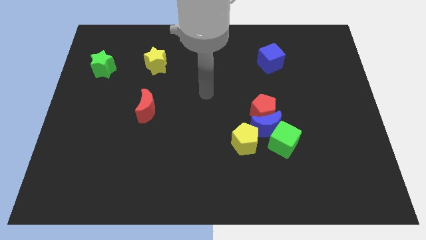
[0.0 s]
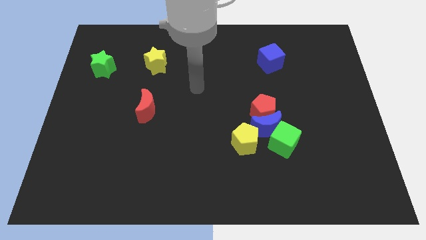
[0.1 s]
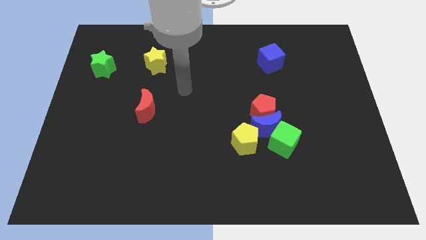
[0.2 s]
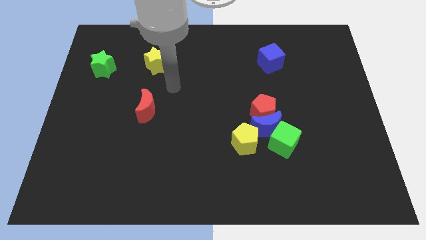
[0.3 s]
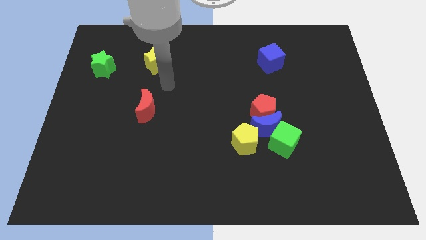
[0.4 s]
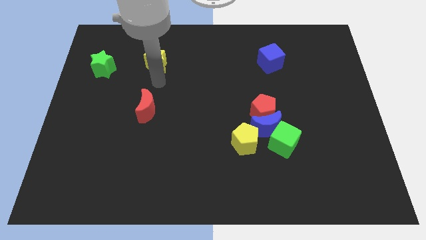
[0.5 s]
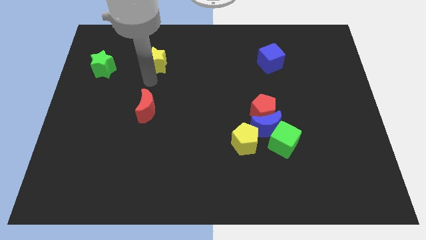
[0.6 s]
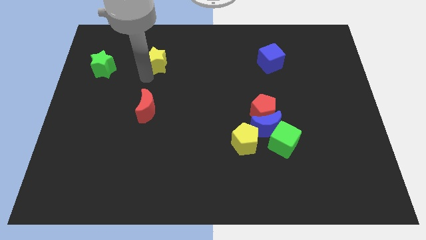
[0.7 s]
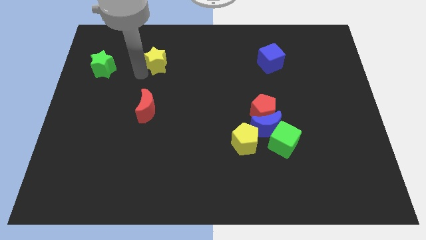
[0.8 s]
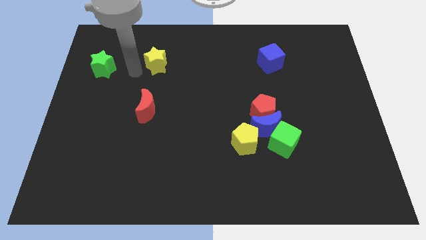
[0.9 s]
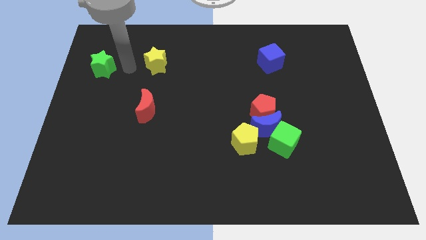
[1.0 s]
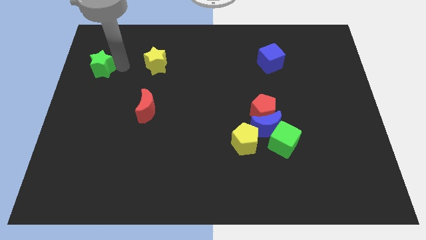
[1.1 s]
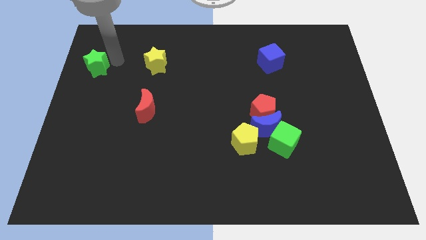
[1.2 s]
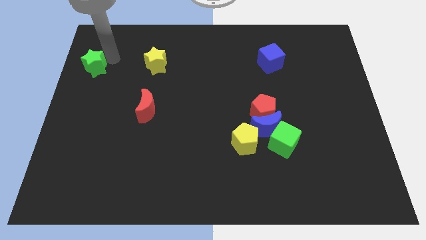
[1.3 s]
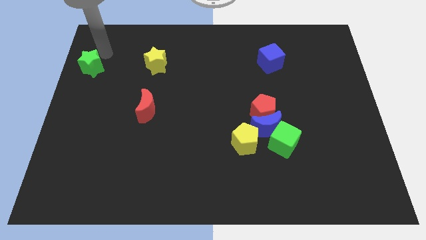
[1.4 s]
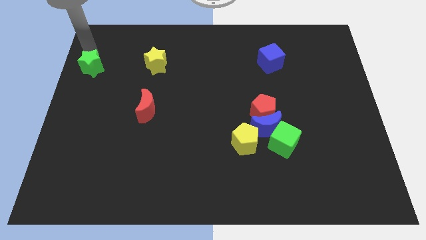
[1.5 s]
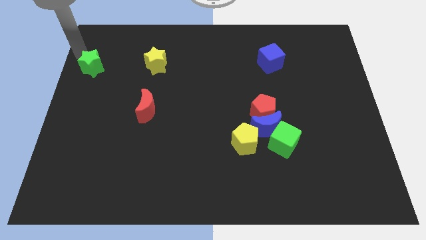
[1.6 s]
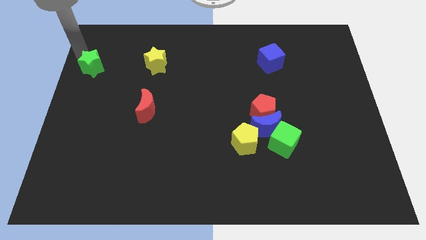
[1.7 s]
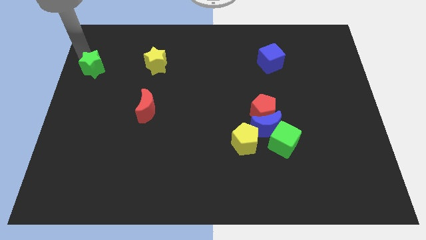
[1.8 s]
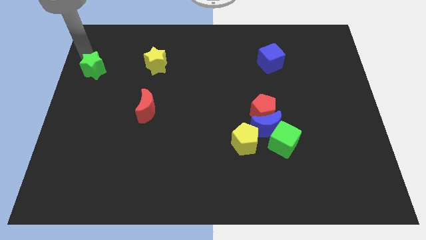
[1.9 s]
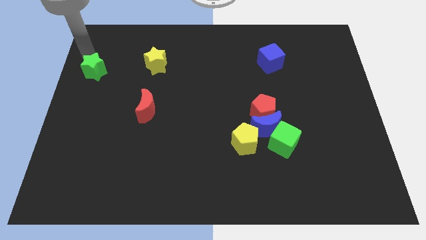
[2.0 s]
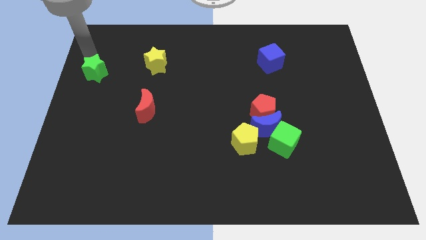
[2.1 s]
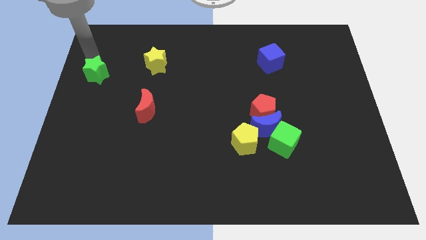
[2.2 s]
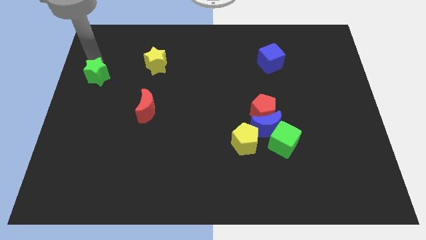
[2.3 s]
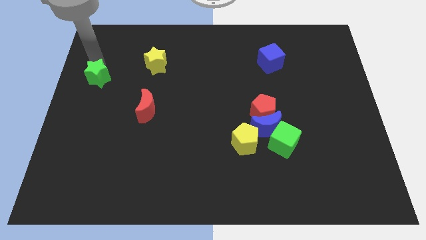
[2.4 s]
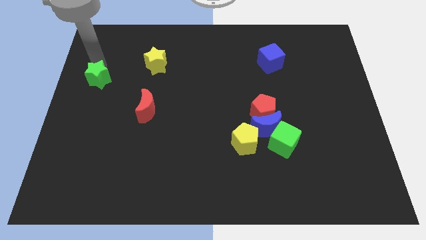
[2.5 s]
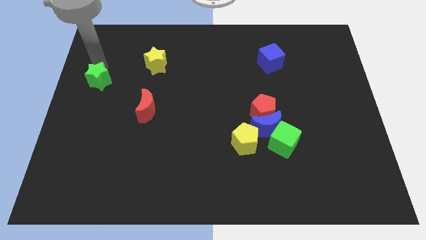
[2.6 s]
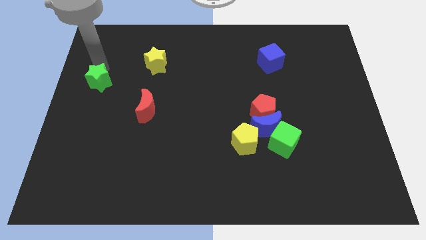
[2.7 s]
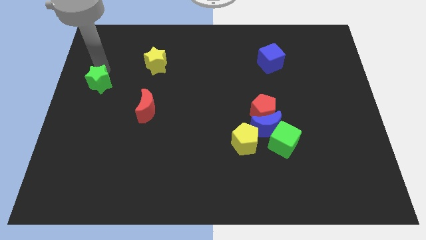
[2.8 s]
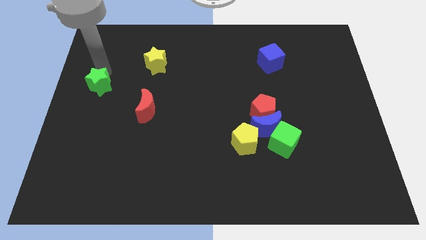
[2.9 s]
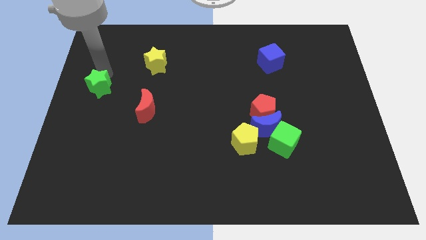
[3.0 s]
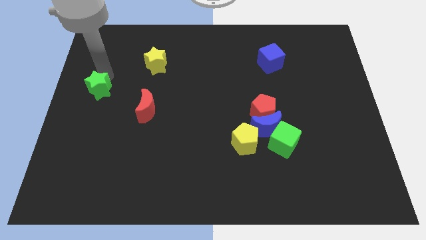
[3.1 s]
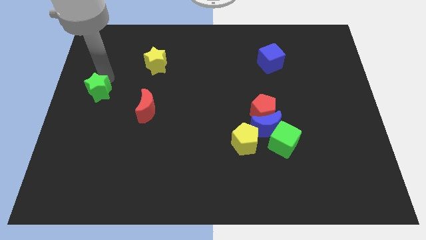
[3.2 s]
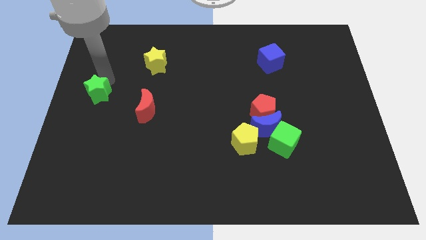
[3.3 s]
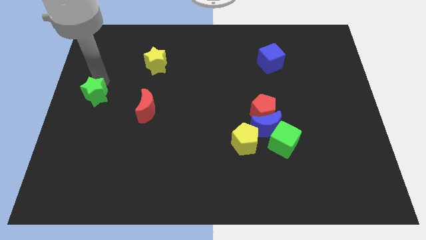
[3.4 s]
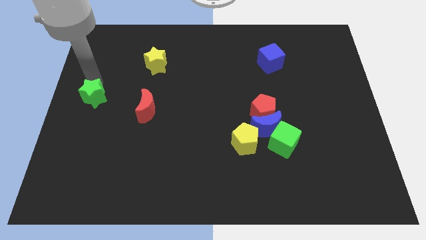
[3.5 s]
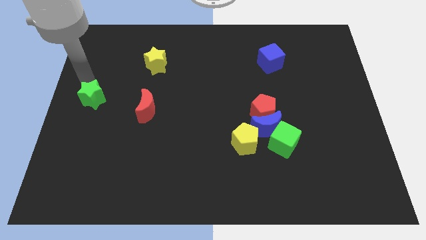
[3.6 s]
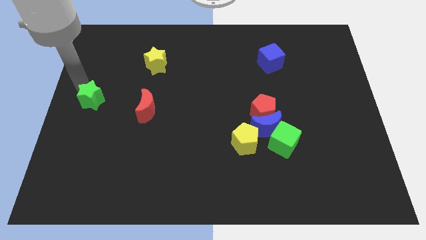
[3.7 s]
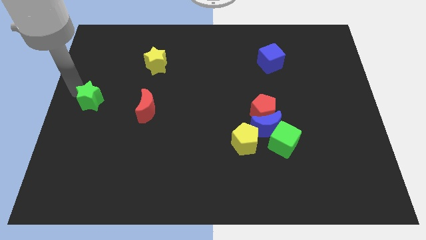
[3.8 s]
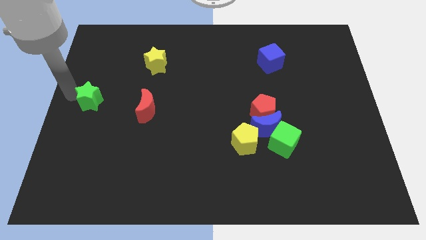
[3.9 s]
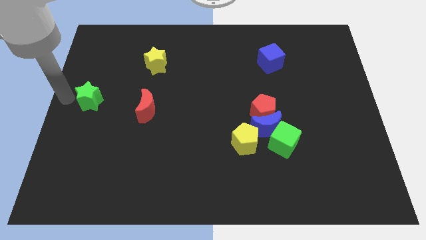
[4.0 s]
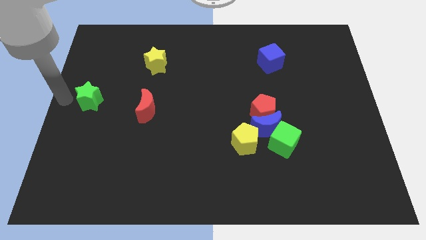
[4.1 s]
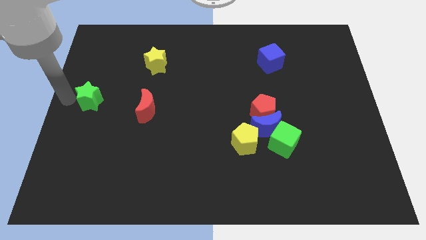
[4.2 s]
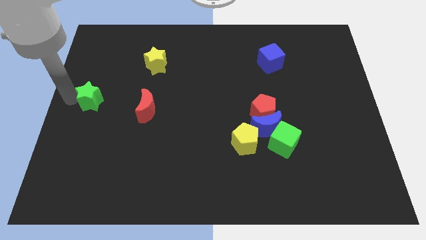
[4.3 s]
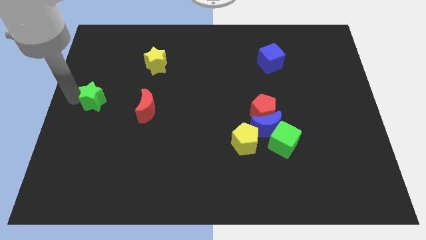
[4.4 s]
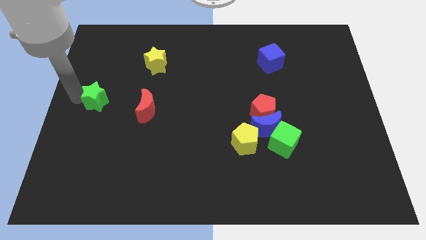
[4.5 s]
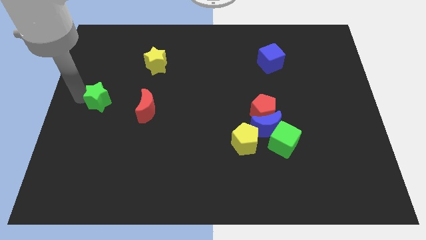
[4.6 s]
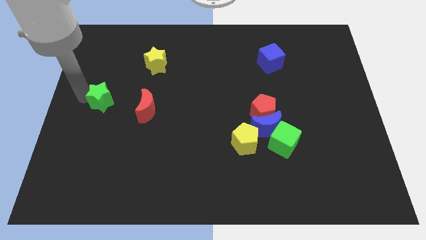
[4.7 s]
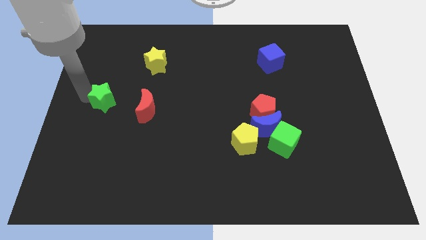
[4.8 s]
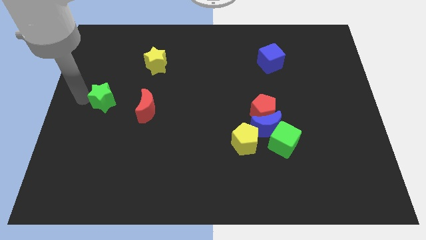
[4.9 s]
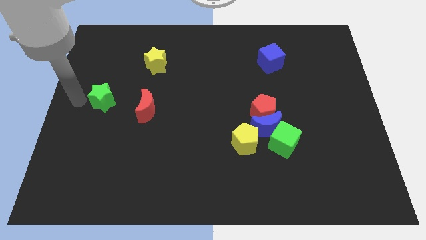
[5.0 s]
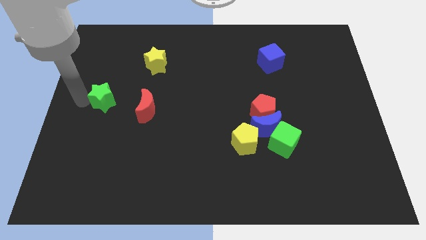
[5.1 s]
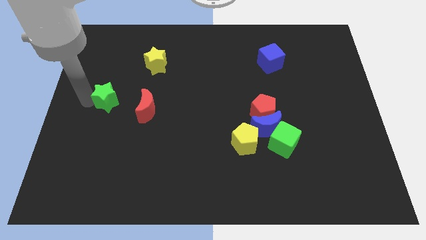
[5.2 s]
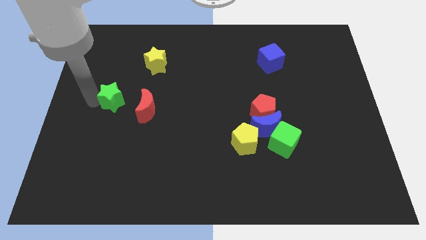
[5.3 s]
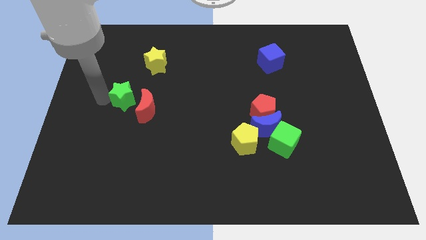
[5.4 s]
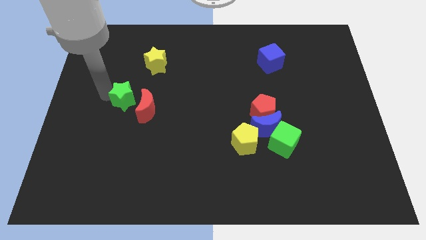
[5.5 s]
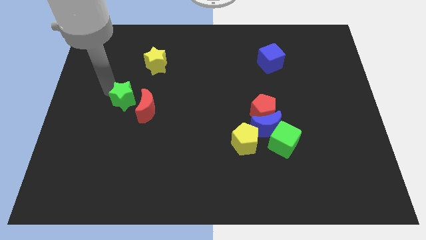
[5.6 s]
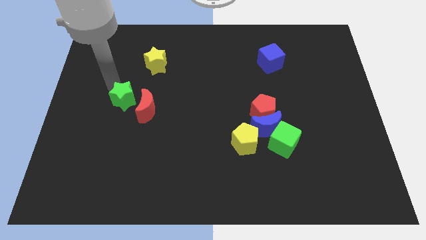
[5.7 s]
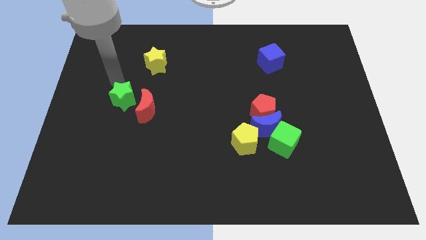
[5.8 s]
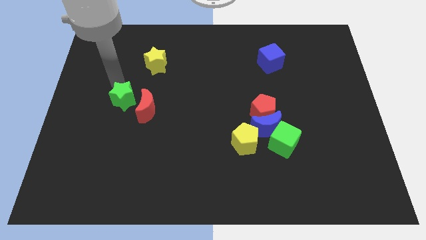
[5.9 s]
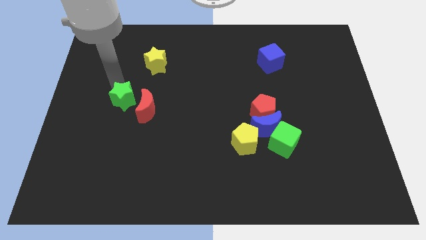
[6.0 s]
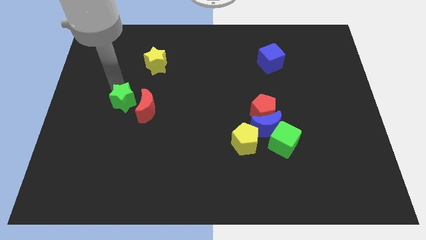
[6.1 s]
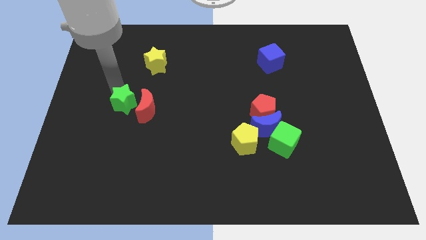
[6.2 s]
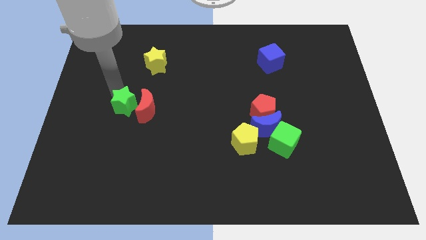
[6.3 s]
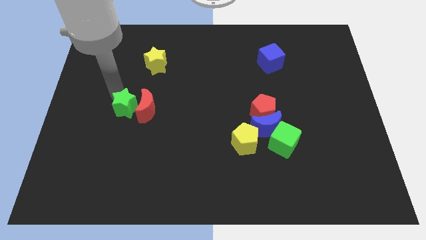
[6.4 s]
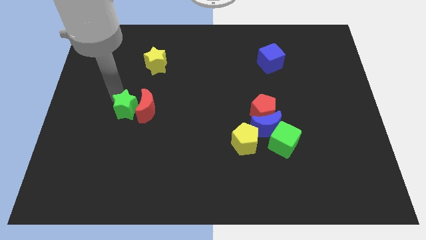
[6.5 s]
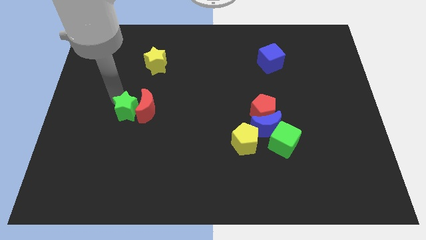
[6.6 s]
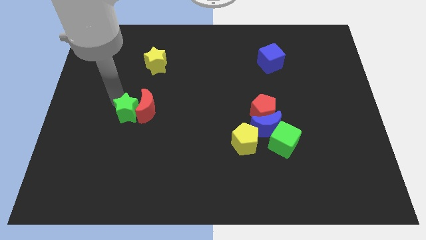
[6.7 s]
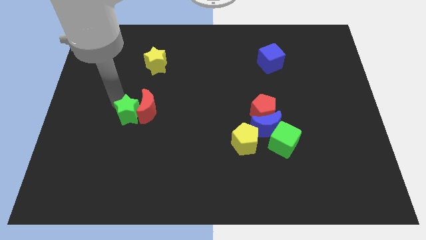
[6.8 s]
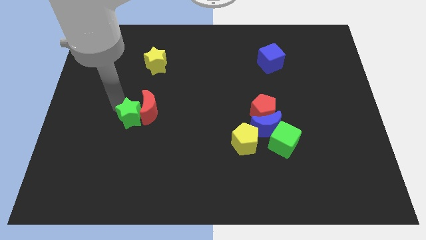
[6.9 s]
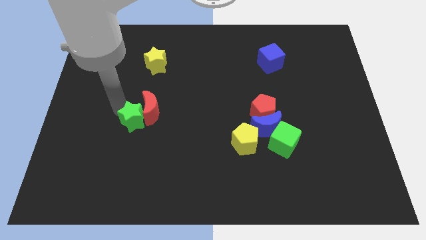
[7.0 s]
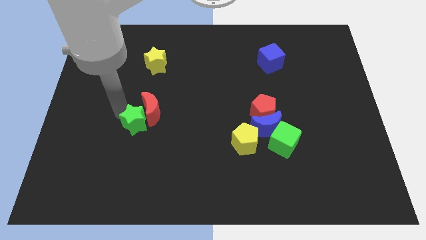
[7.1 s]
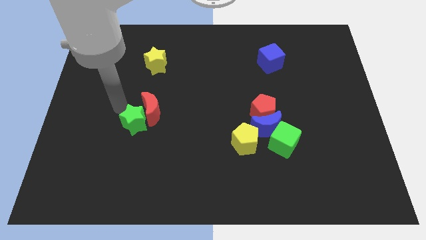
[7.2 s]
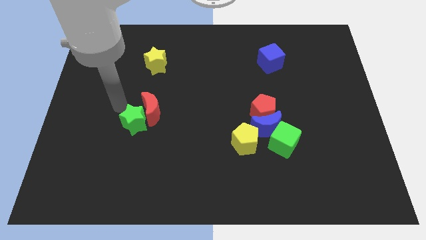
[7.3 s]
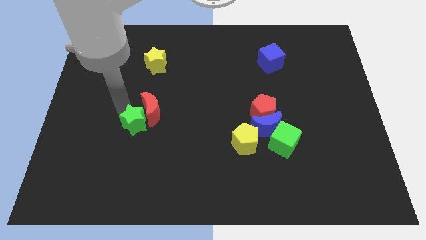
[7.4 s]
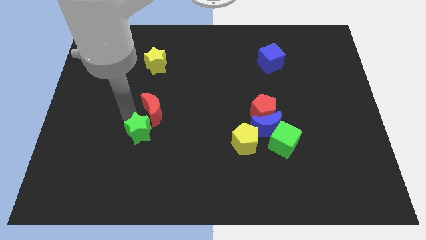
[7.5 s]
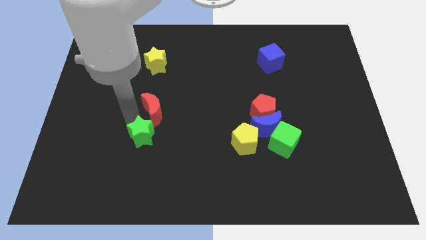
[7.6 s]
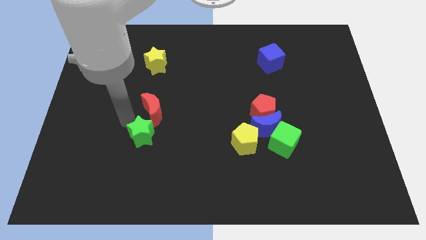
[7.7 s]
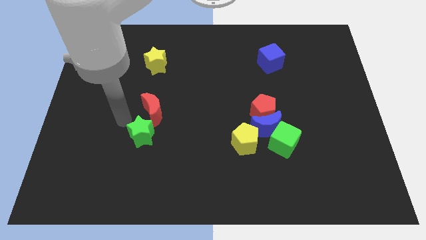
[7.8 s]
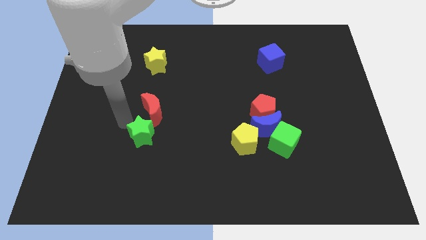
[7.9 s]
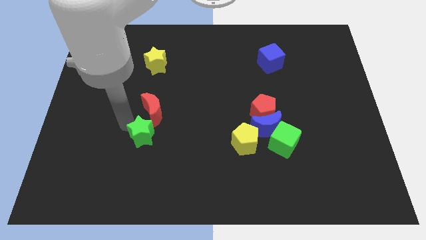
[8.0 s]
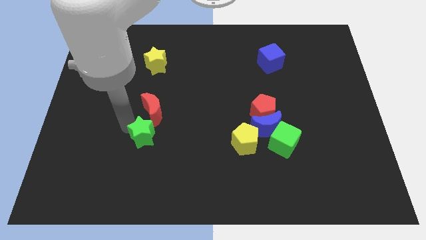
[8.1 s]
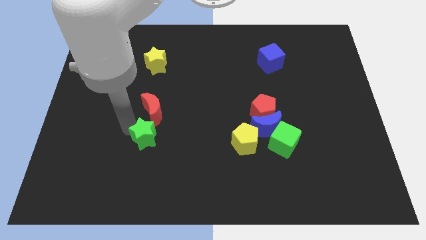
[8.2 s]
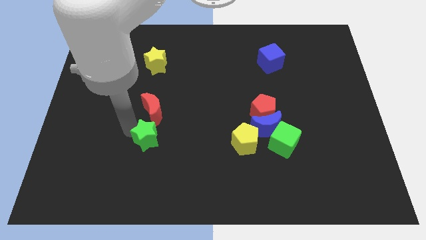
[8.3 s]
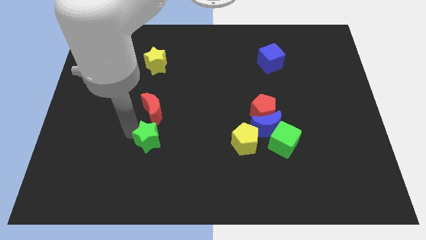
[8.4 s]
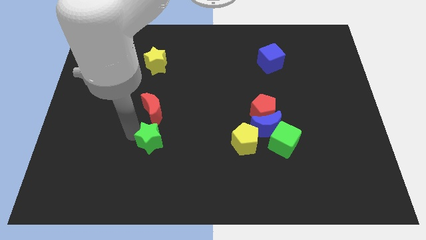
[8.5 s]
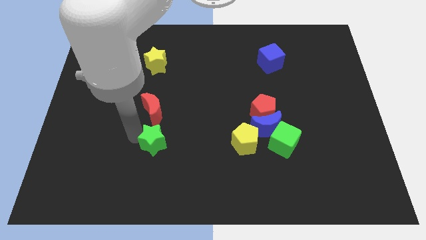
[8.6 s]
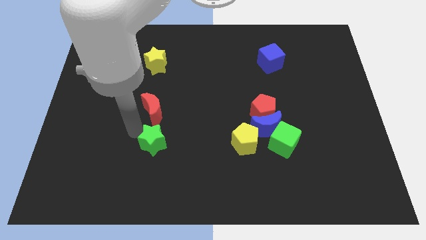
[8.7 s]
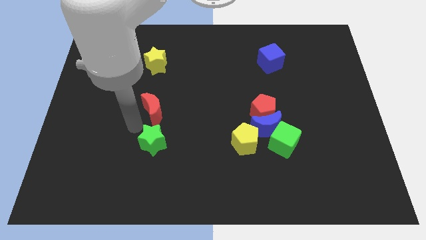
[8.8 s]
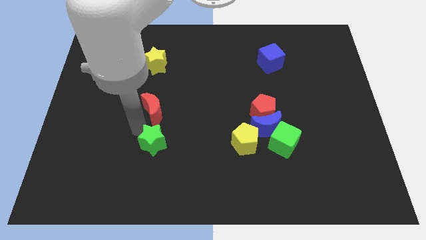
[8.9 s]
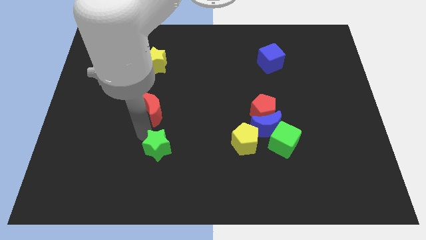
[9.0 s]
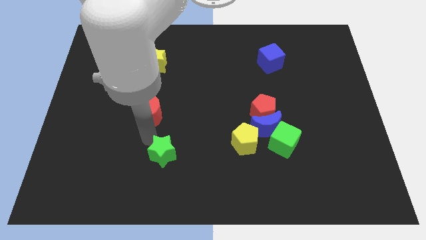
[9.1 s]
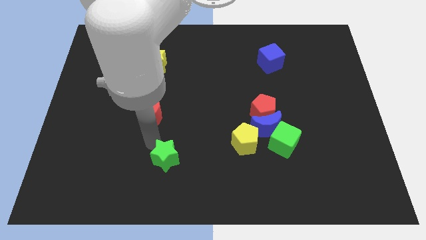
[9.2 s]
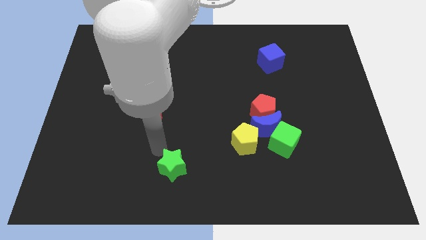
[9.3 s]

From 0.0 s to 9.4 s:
slide the green star to the bottom
